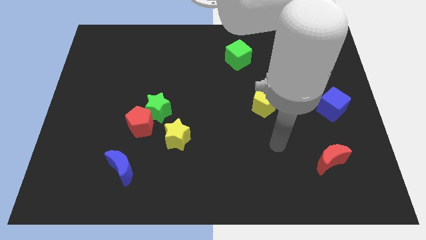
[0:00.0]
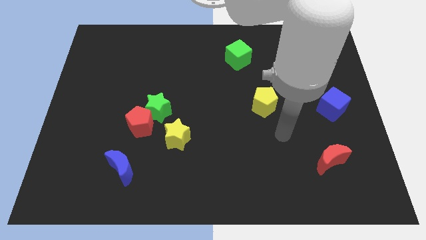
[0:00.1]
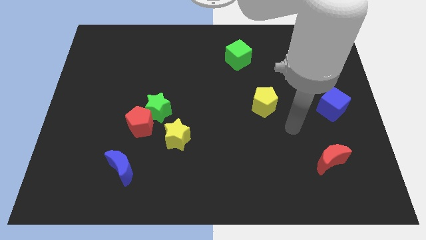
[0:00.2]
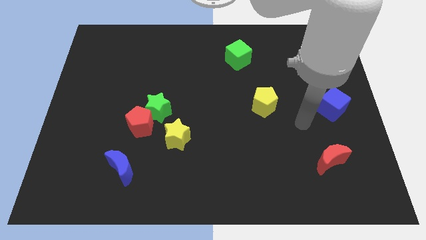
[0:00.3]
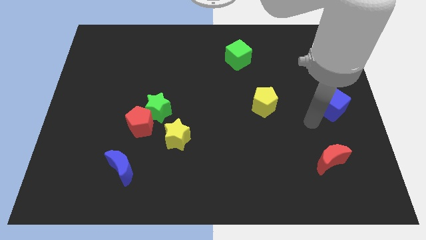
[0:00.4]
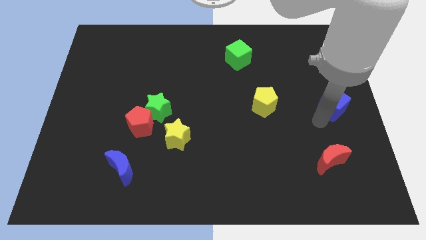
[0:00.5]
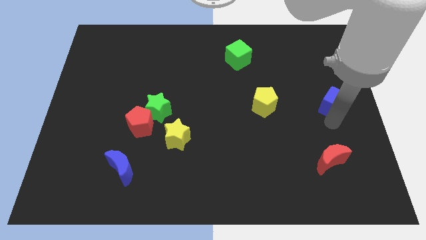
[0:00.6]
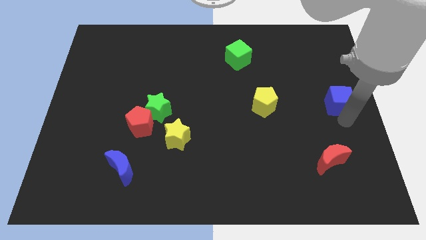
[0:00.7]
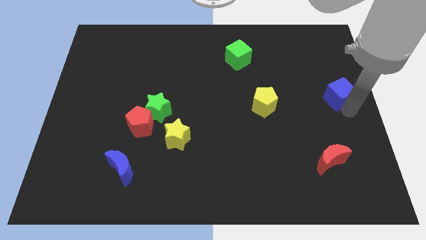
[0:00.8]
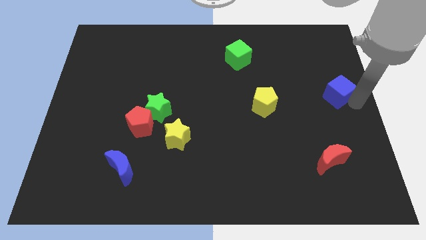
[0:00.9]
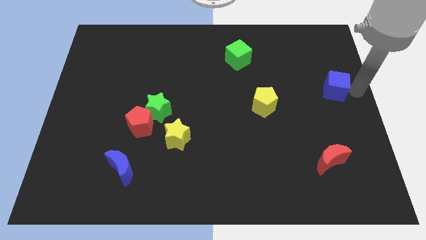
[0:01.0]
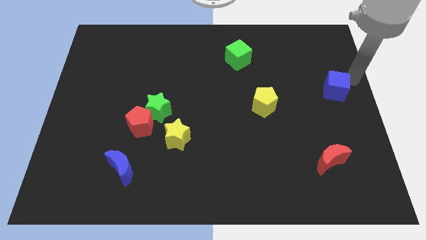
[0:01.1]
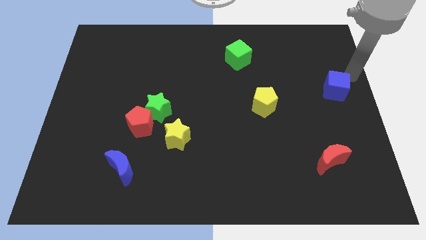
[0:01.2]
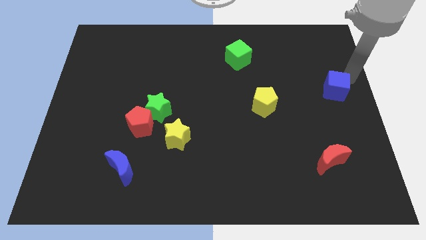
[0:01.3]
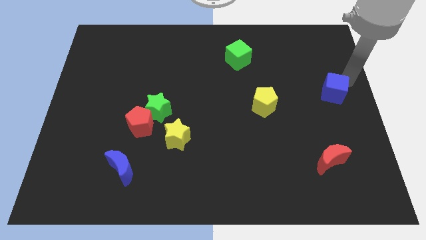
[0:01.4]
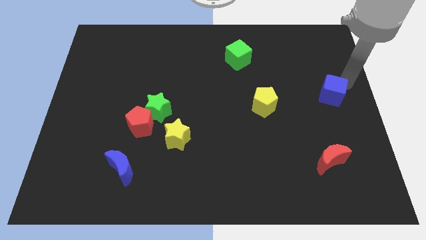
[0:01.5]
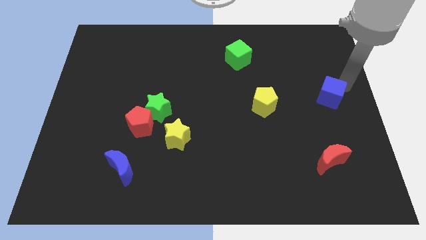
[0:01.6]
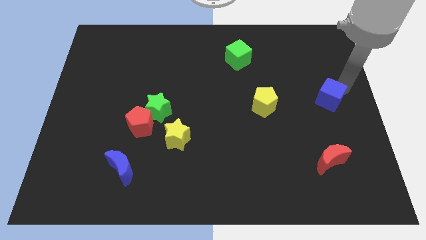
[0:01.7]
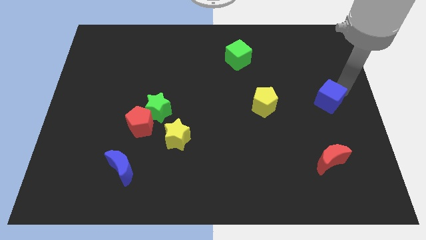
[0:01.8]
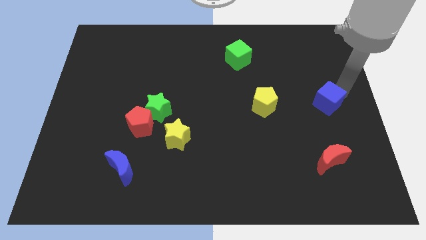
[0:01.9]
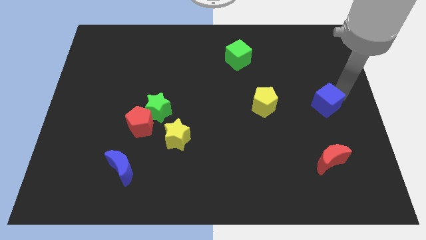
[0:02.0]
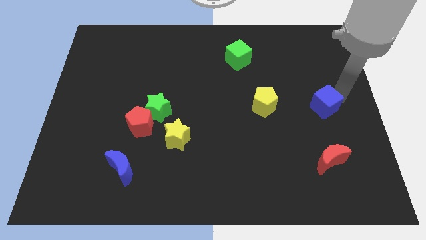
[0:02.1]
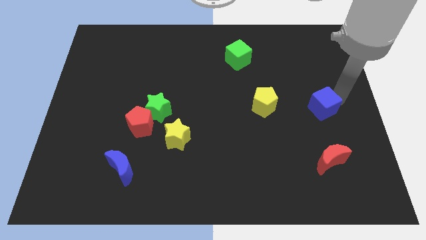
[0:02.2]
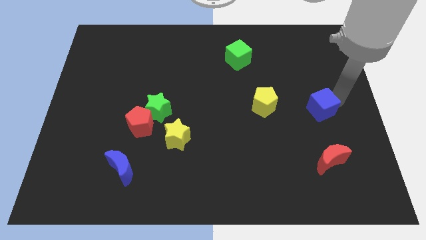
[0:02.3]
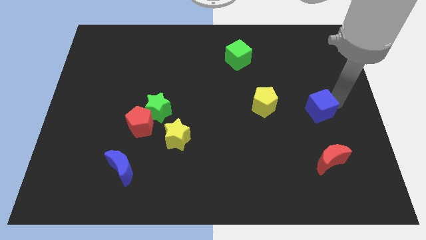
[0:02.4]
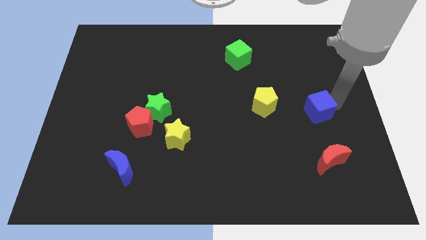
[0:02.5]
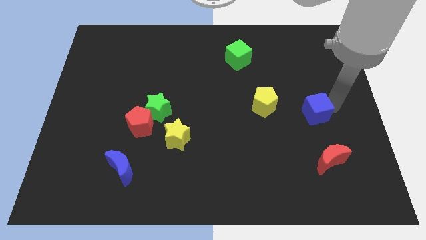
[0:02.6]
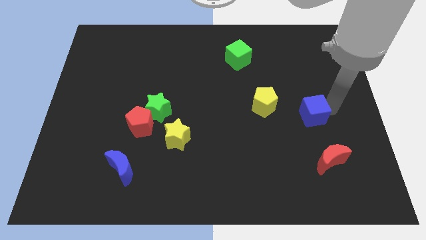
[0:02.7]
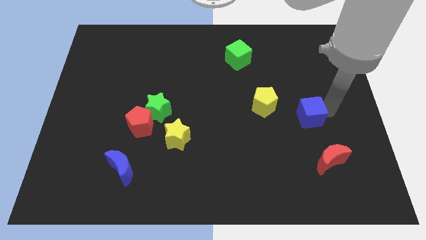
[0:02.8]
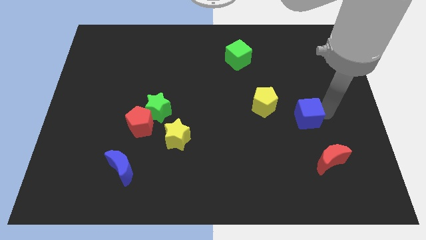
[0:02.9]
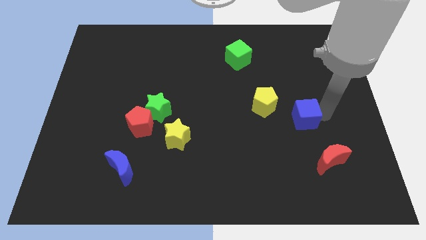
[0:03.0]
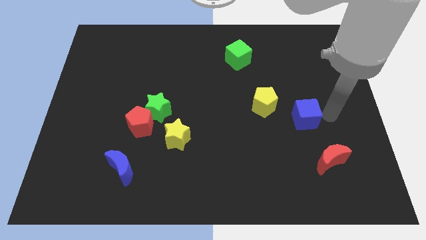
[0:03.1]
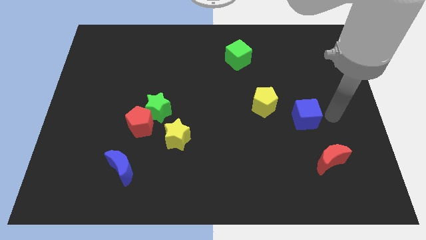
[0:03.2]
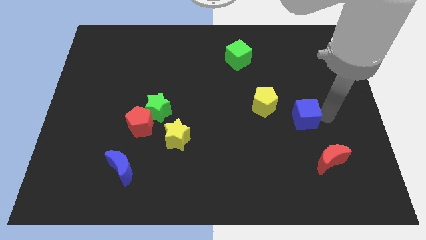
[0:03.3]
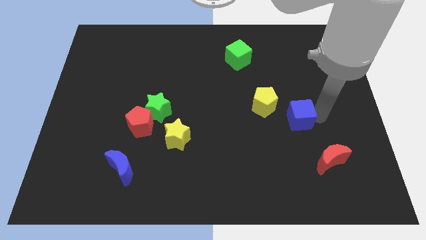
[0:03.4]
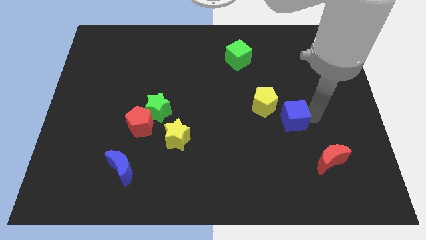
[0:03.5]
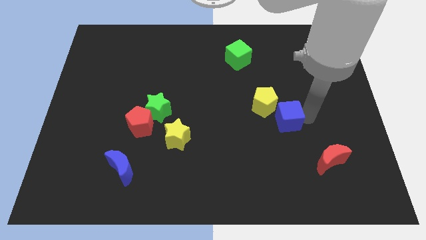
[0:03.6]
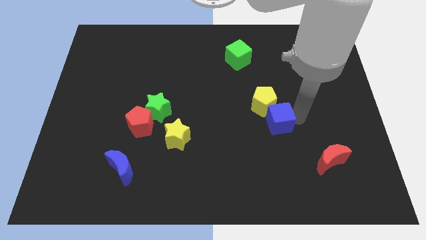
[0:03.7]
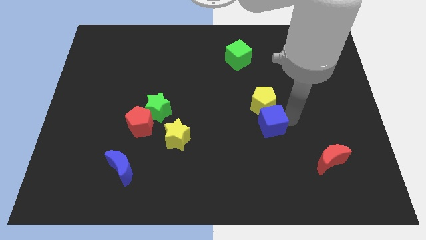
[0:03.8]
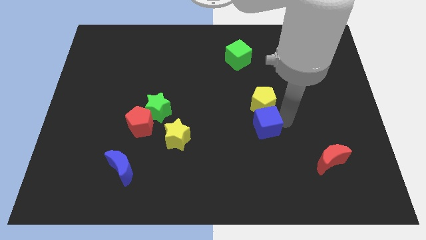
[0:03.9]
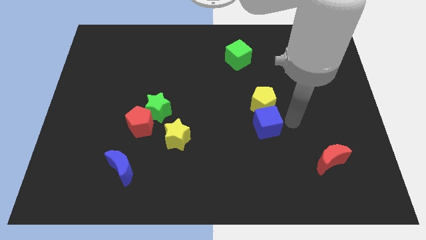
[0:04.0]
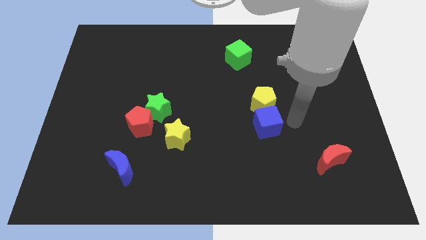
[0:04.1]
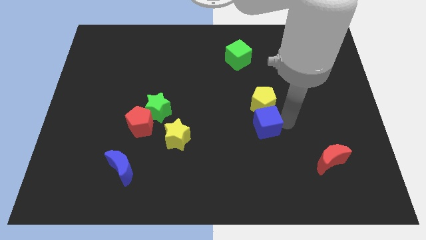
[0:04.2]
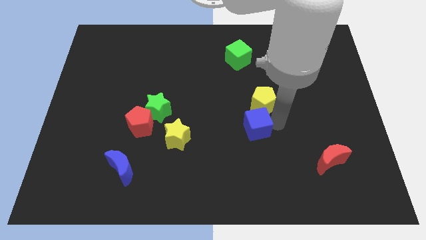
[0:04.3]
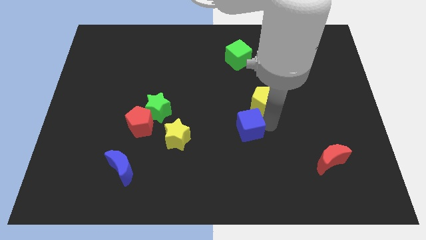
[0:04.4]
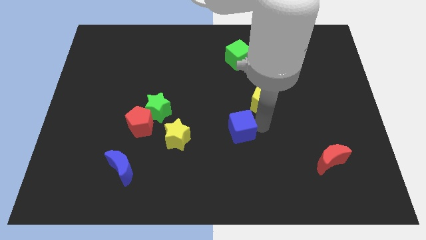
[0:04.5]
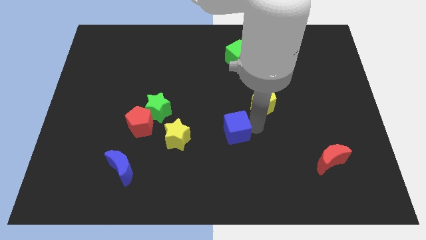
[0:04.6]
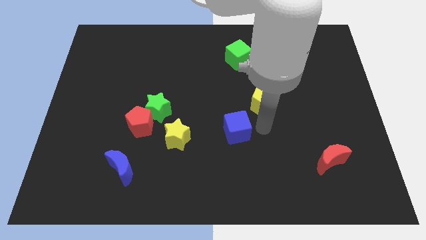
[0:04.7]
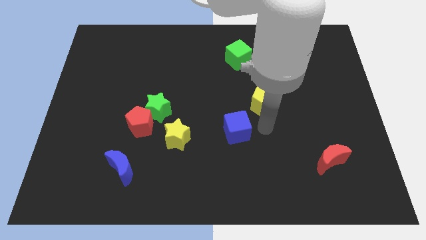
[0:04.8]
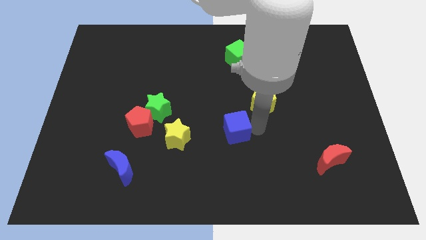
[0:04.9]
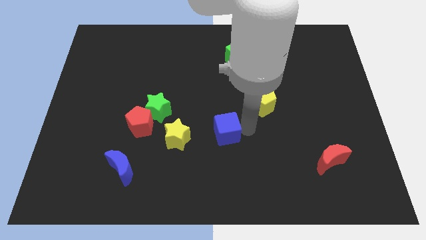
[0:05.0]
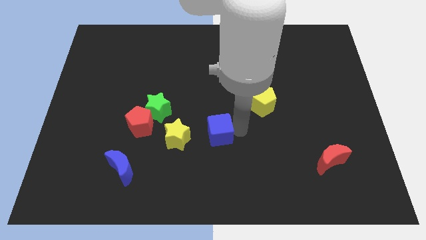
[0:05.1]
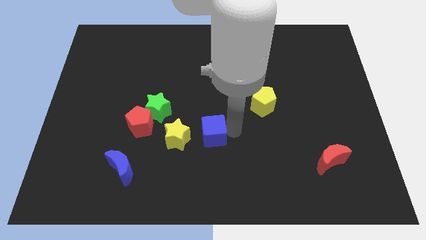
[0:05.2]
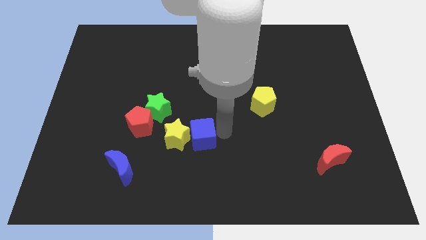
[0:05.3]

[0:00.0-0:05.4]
push the blue cube to the yellow star

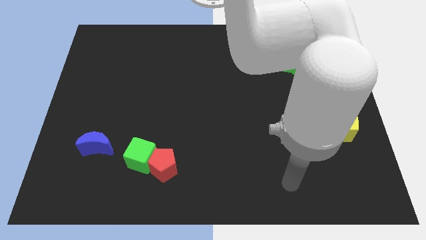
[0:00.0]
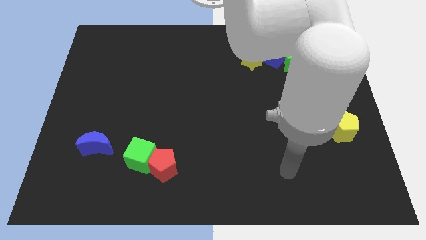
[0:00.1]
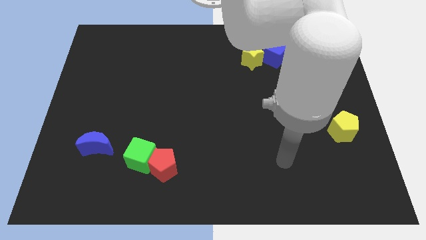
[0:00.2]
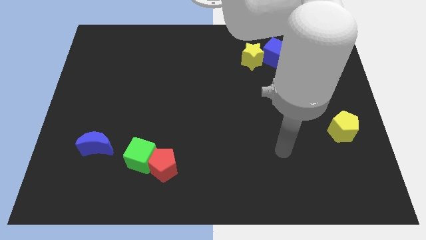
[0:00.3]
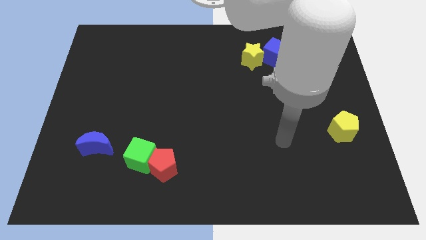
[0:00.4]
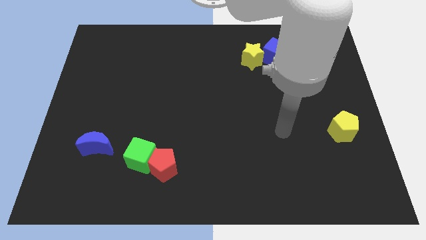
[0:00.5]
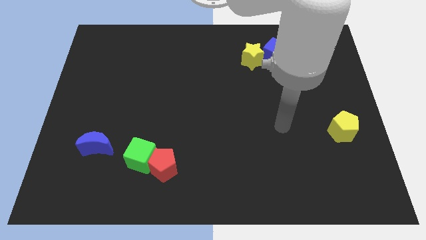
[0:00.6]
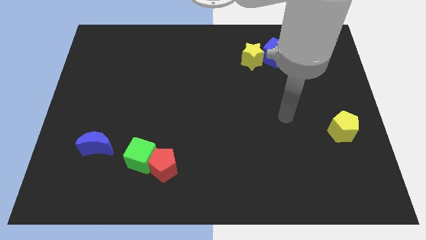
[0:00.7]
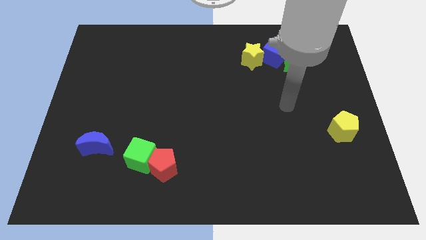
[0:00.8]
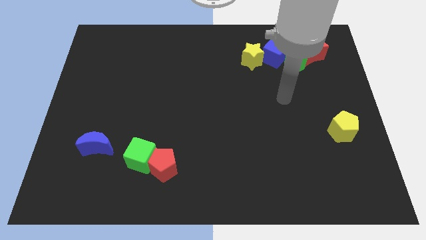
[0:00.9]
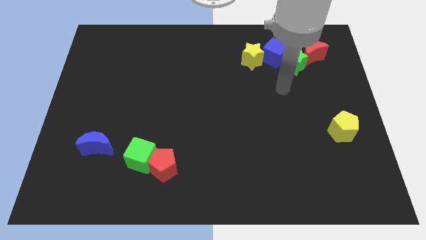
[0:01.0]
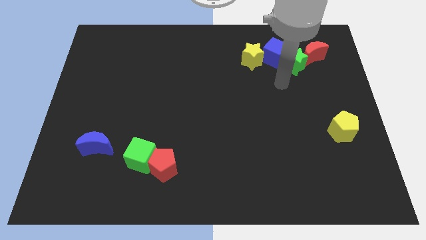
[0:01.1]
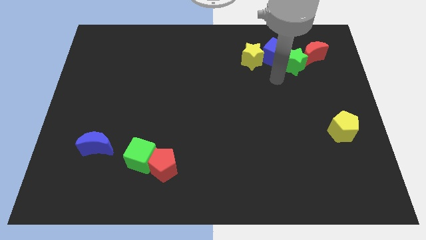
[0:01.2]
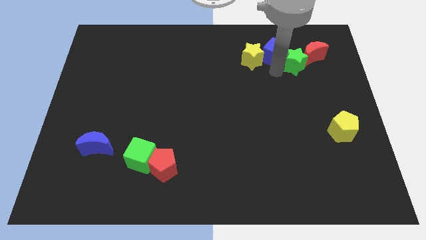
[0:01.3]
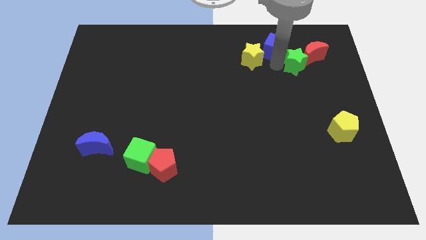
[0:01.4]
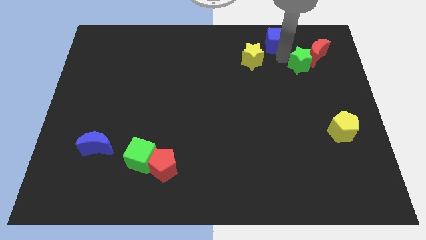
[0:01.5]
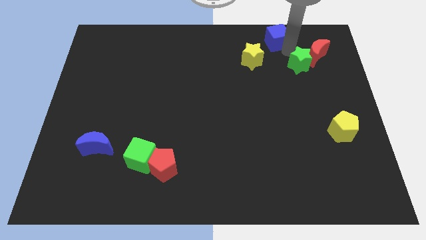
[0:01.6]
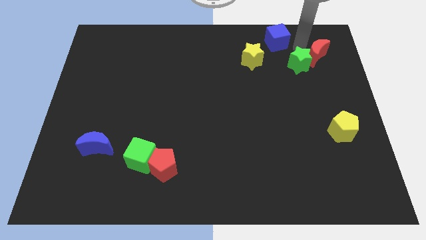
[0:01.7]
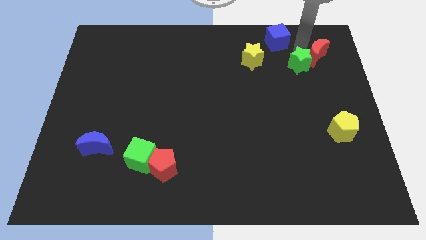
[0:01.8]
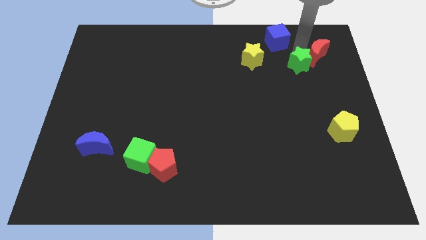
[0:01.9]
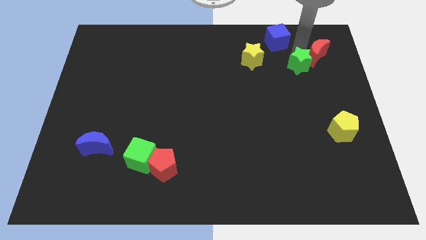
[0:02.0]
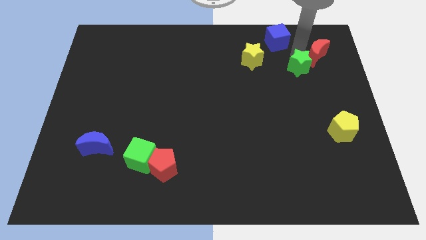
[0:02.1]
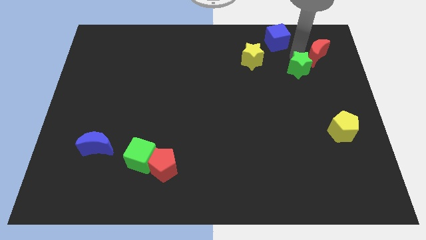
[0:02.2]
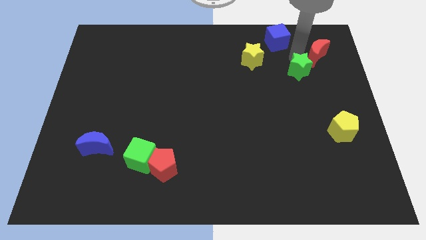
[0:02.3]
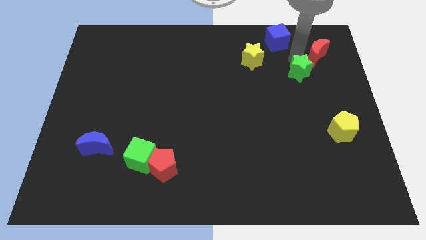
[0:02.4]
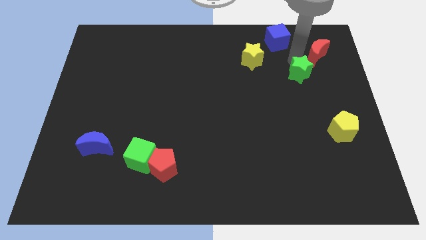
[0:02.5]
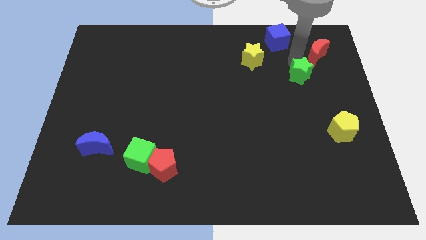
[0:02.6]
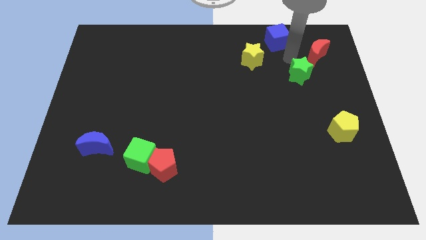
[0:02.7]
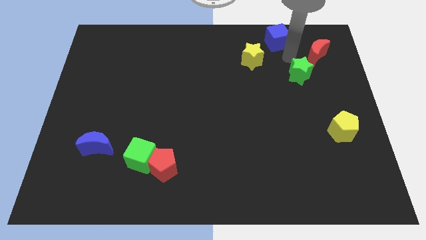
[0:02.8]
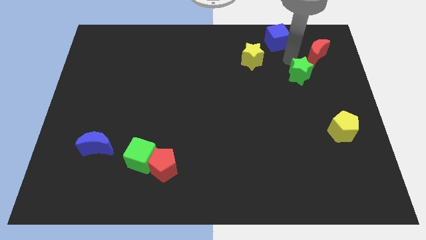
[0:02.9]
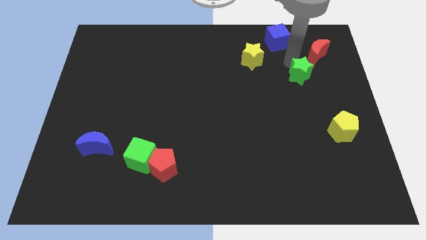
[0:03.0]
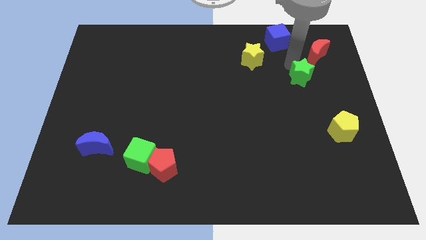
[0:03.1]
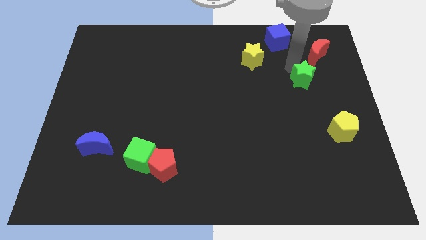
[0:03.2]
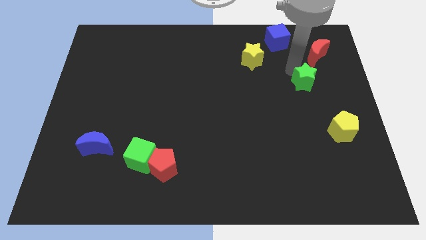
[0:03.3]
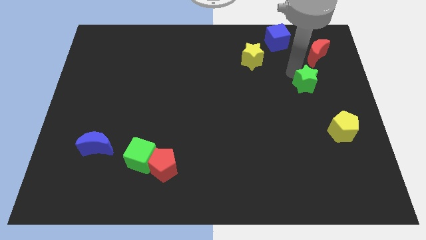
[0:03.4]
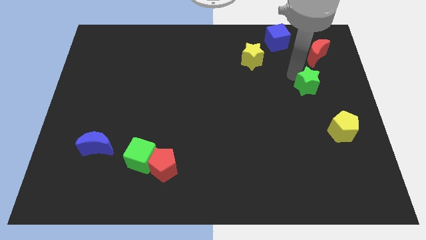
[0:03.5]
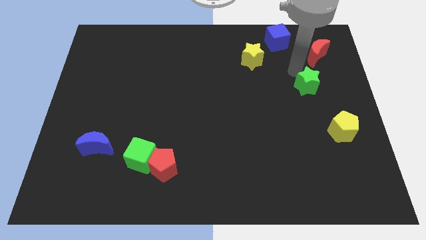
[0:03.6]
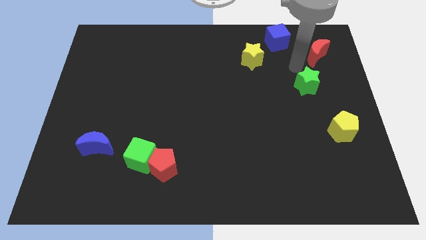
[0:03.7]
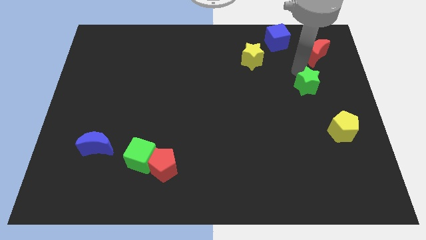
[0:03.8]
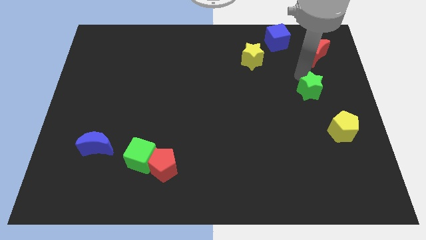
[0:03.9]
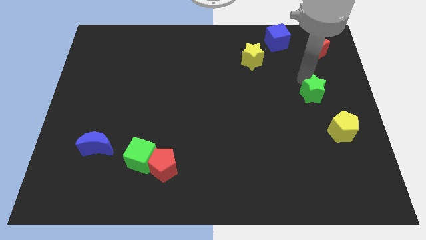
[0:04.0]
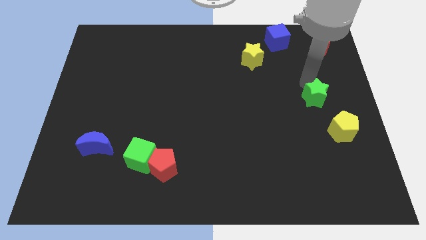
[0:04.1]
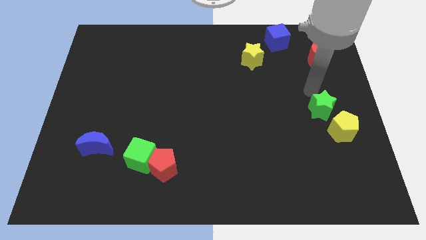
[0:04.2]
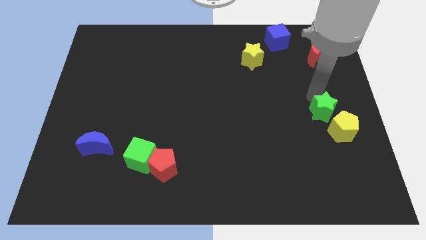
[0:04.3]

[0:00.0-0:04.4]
move the green star close to the yellow pentagon
